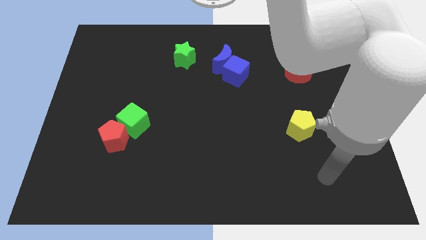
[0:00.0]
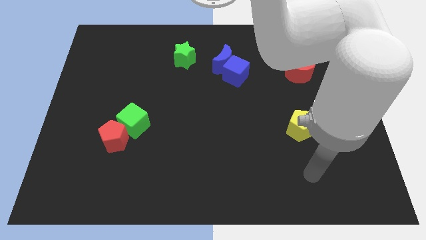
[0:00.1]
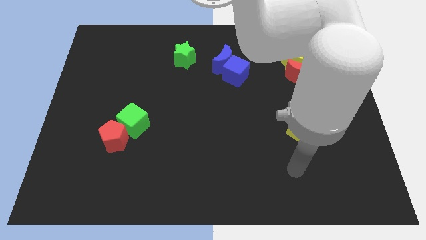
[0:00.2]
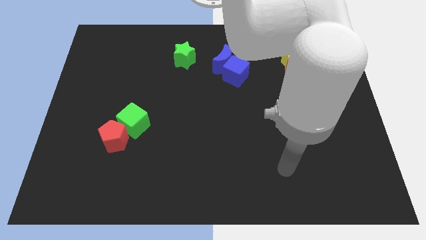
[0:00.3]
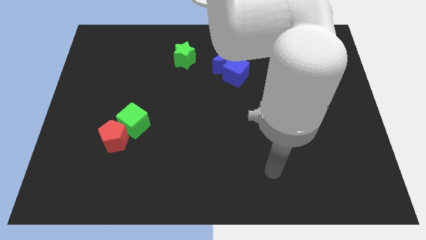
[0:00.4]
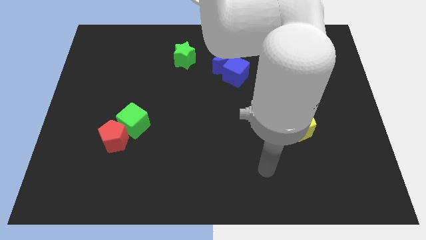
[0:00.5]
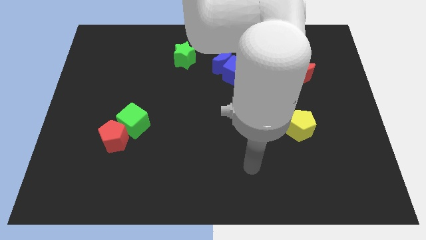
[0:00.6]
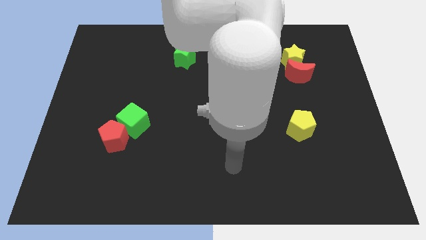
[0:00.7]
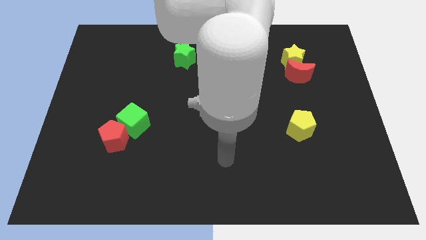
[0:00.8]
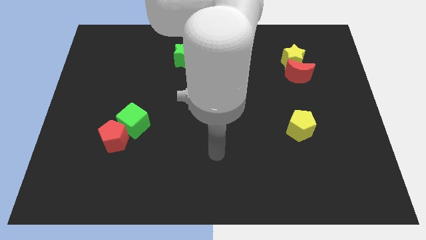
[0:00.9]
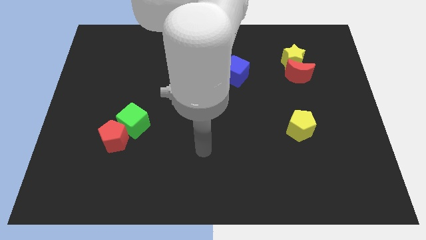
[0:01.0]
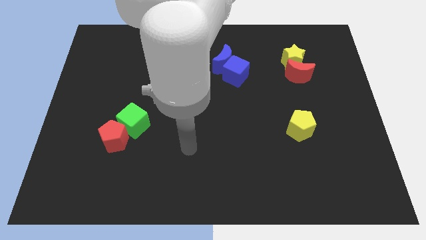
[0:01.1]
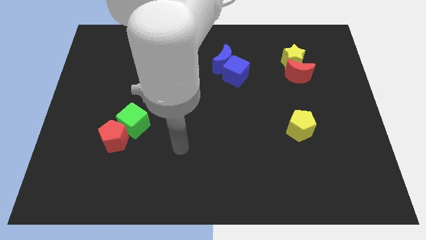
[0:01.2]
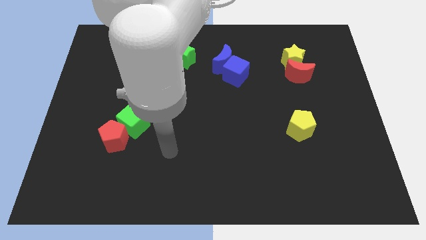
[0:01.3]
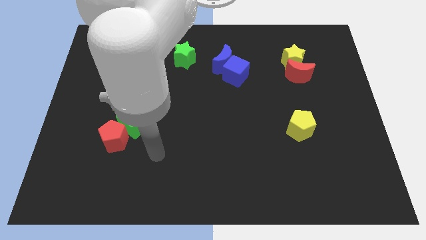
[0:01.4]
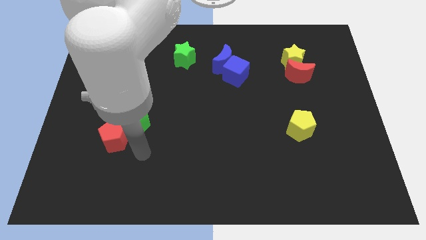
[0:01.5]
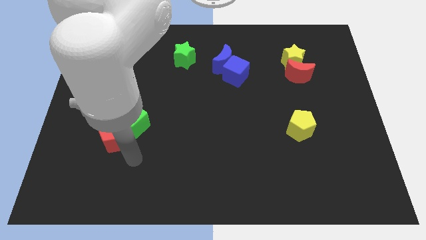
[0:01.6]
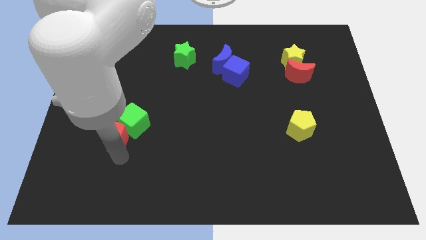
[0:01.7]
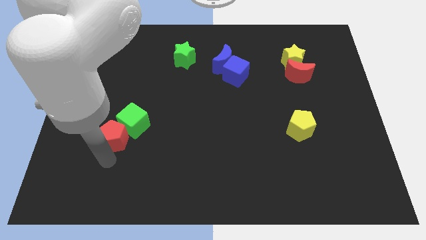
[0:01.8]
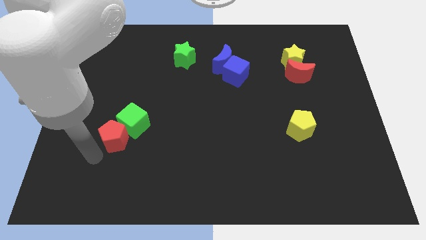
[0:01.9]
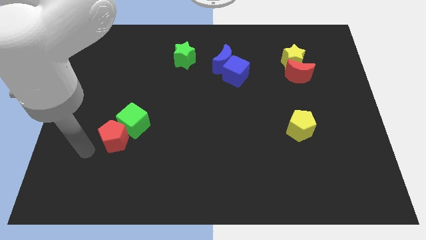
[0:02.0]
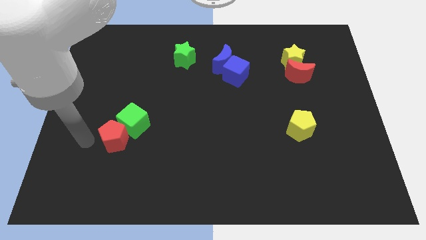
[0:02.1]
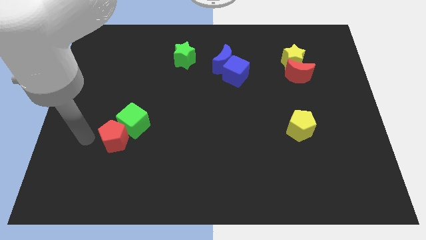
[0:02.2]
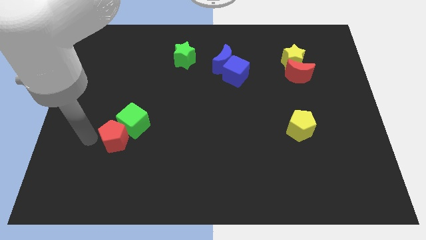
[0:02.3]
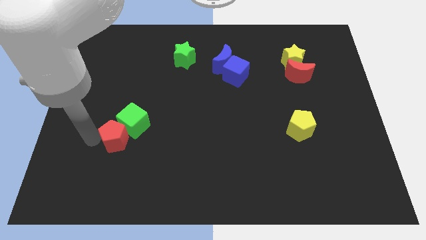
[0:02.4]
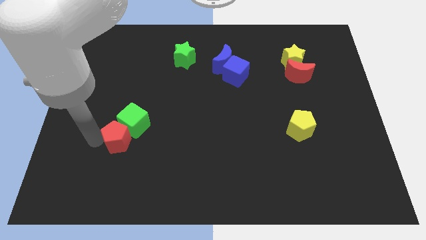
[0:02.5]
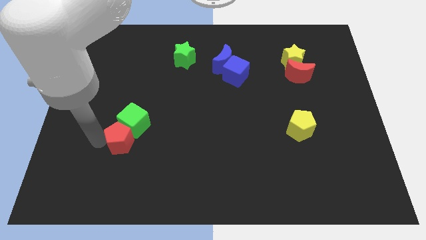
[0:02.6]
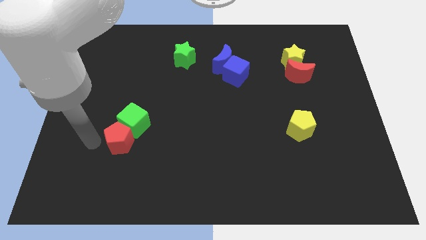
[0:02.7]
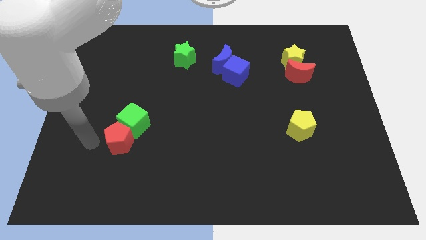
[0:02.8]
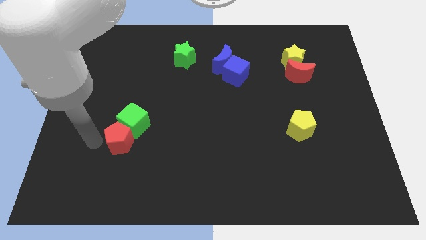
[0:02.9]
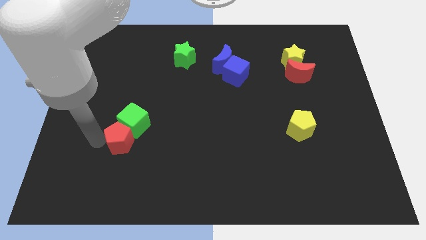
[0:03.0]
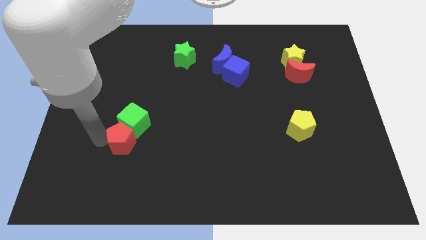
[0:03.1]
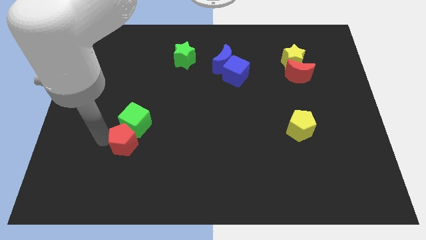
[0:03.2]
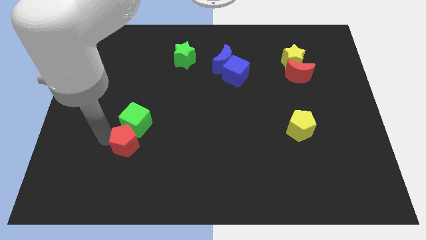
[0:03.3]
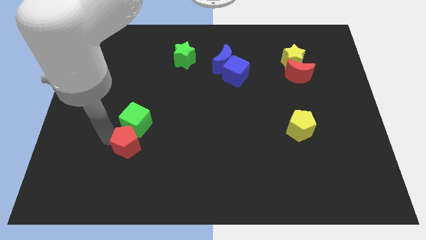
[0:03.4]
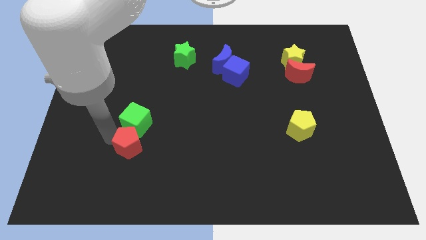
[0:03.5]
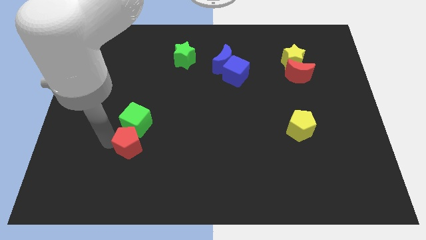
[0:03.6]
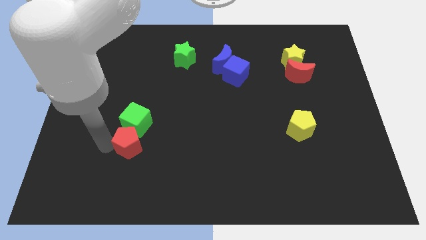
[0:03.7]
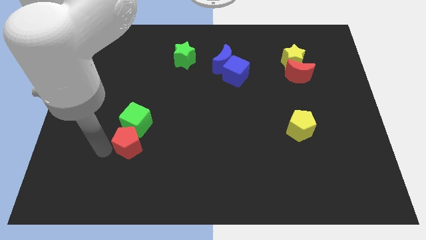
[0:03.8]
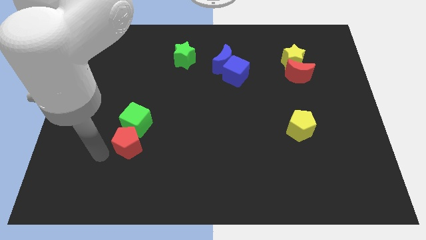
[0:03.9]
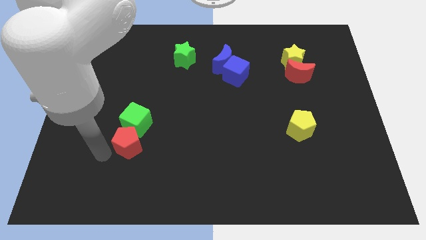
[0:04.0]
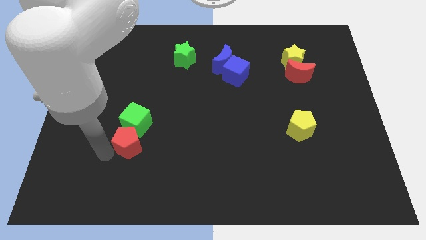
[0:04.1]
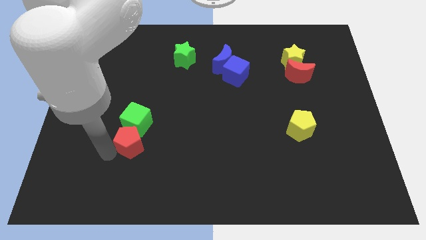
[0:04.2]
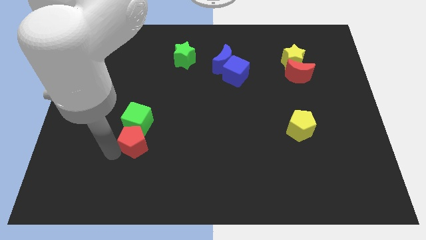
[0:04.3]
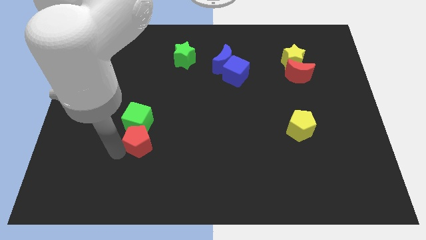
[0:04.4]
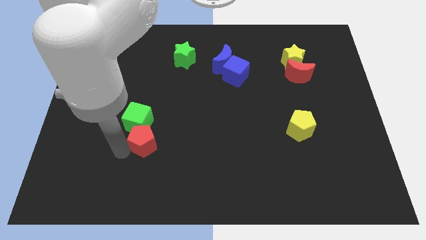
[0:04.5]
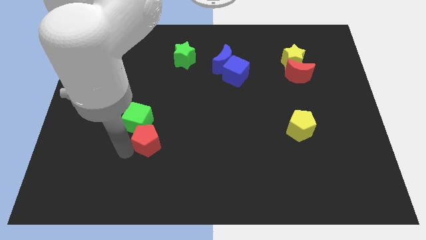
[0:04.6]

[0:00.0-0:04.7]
slide the red pentagon slightly right

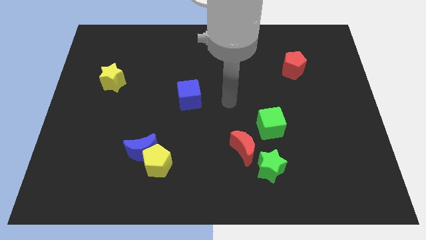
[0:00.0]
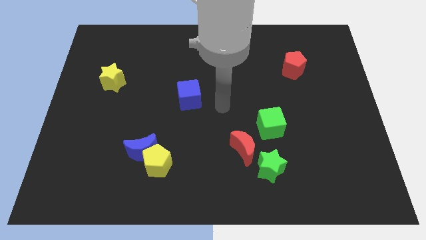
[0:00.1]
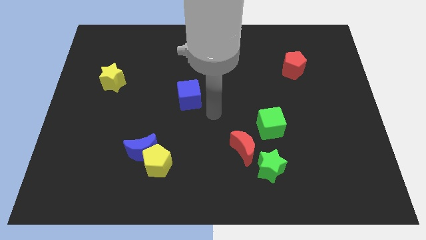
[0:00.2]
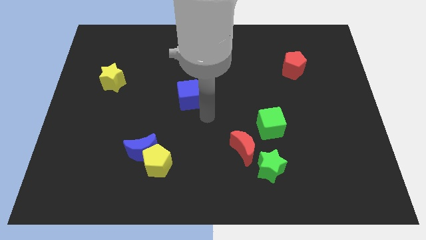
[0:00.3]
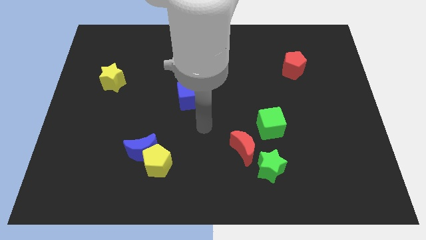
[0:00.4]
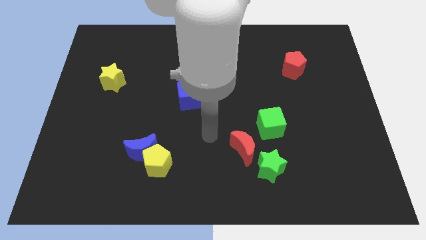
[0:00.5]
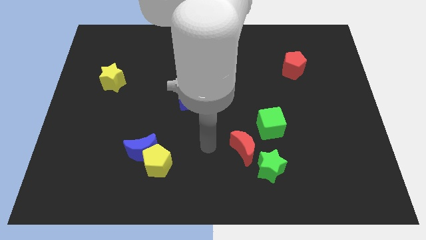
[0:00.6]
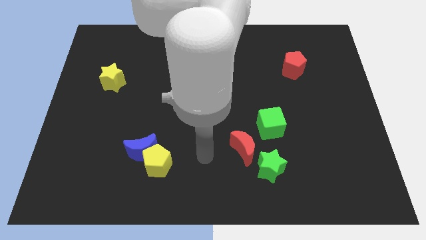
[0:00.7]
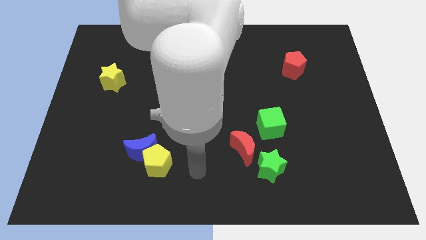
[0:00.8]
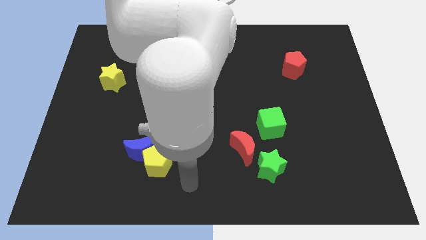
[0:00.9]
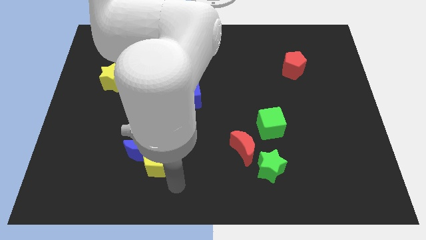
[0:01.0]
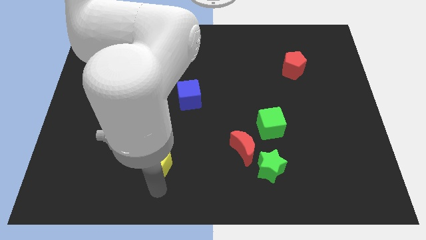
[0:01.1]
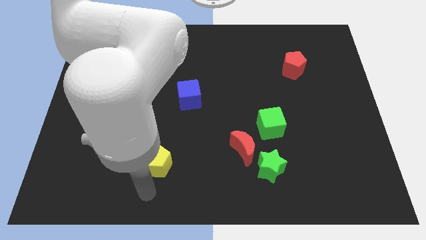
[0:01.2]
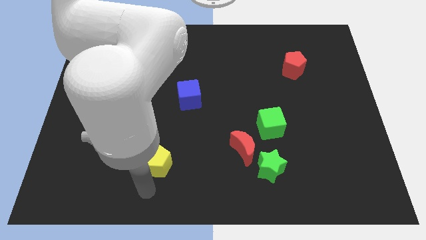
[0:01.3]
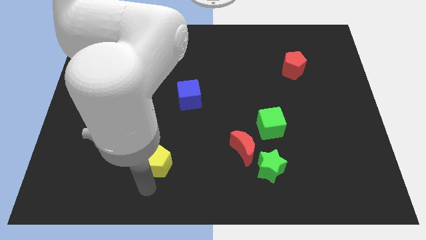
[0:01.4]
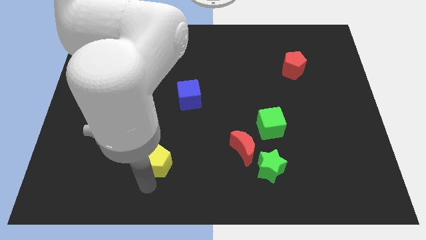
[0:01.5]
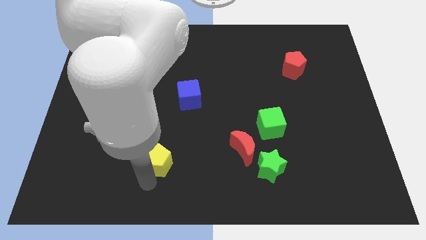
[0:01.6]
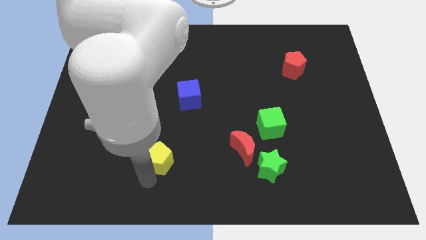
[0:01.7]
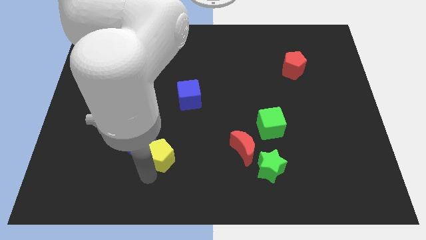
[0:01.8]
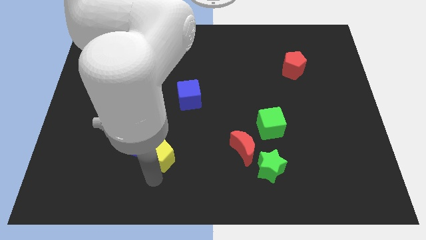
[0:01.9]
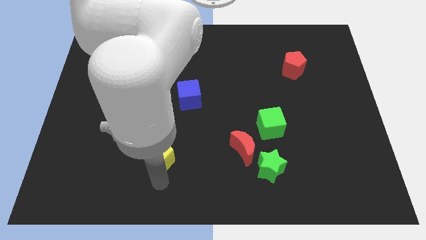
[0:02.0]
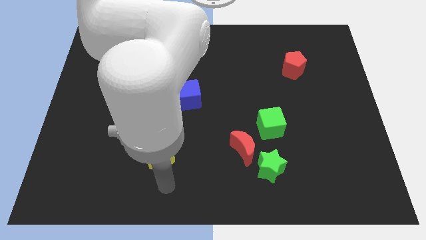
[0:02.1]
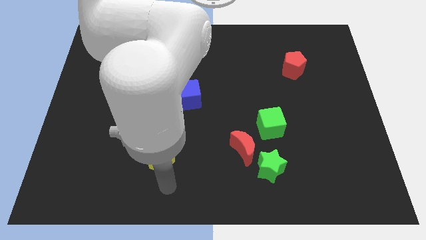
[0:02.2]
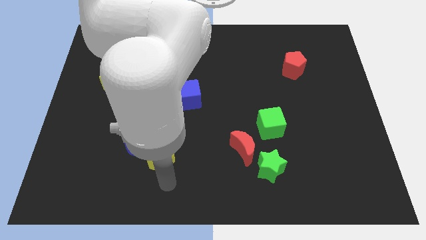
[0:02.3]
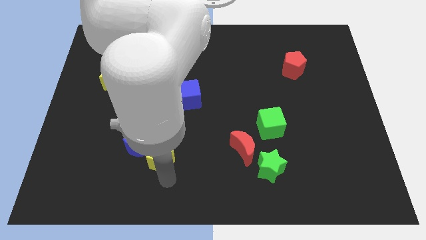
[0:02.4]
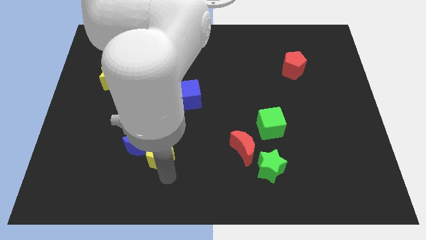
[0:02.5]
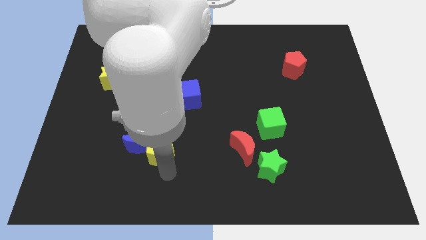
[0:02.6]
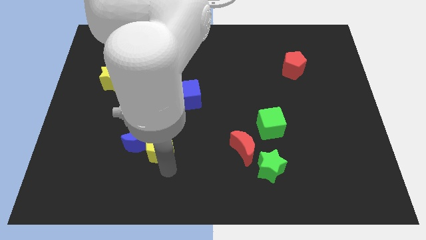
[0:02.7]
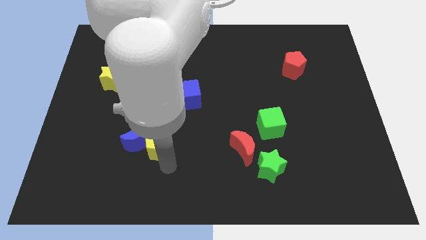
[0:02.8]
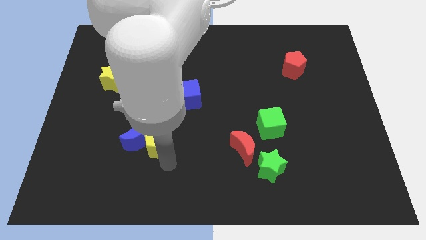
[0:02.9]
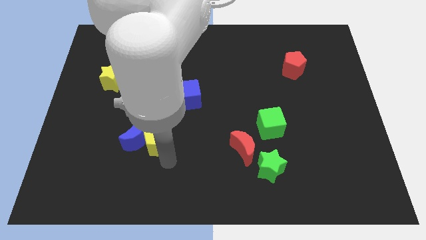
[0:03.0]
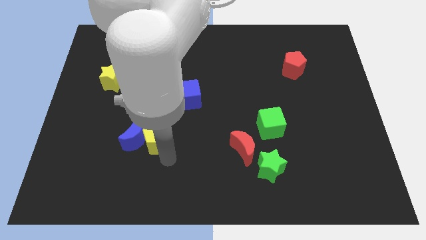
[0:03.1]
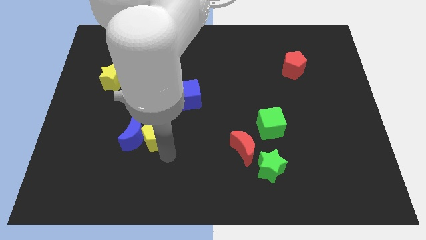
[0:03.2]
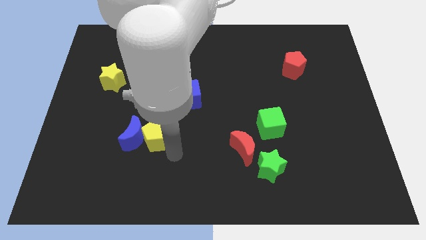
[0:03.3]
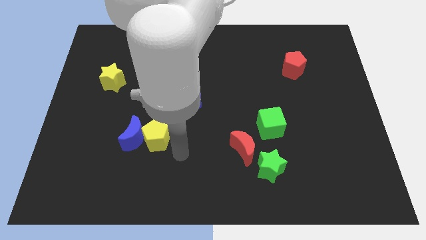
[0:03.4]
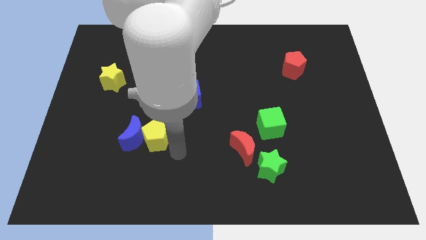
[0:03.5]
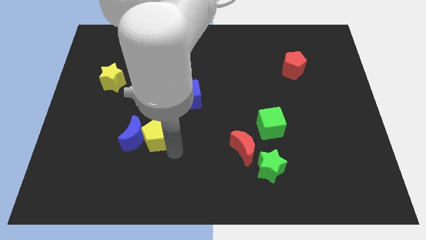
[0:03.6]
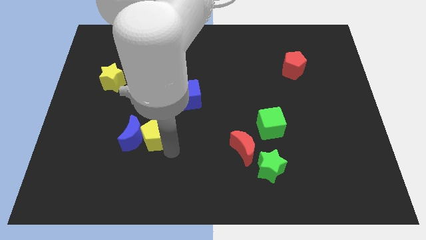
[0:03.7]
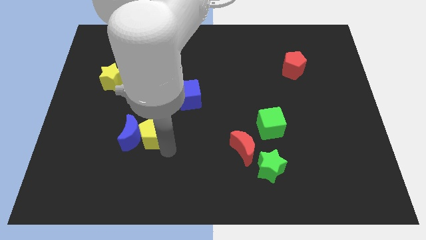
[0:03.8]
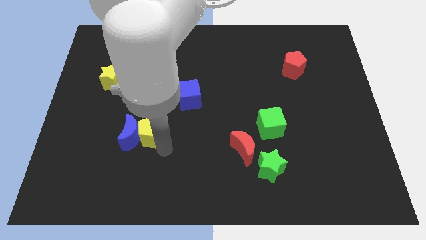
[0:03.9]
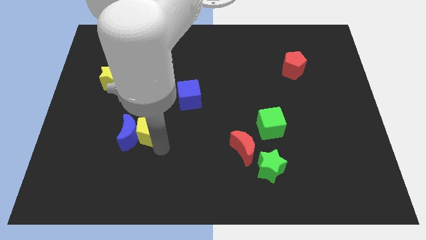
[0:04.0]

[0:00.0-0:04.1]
slide the yellow pentagon upwards and then left somewhat
